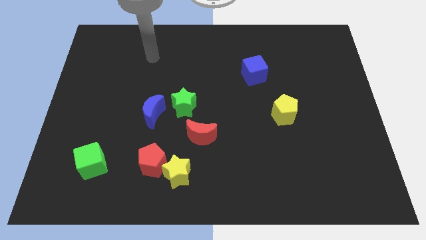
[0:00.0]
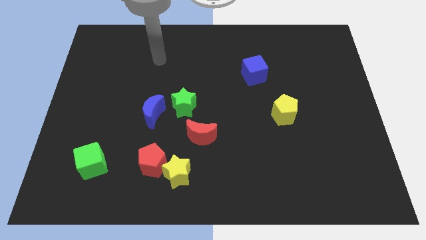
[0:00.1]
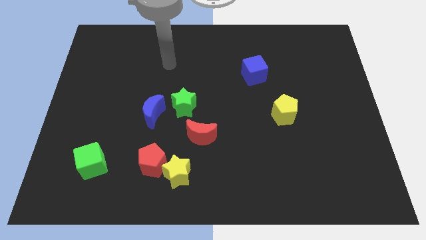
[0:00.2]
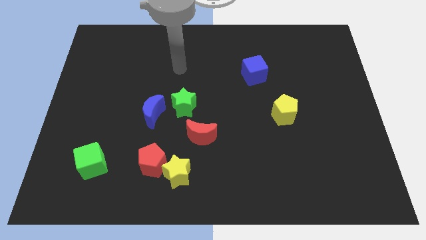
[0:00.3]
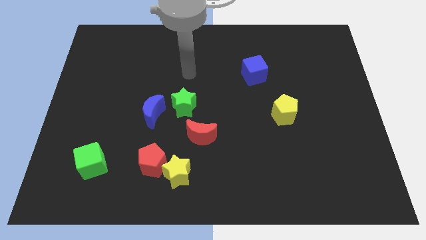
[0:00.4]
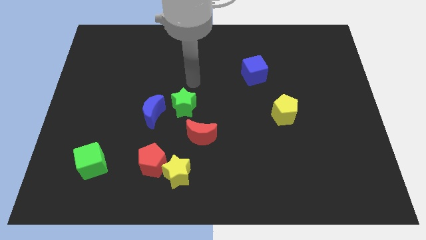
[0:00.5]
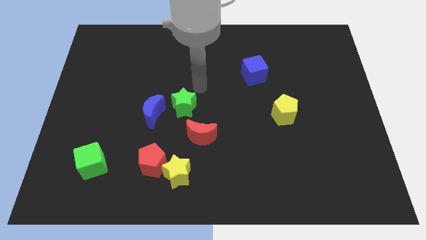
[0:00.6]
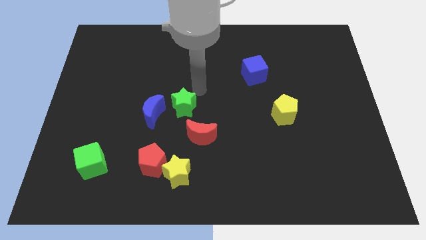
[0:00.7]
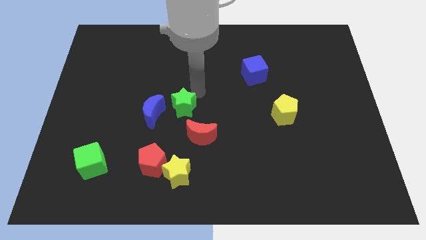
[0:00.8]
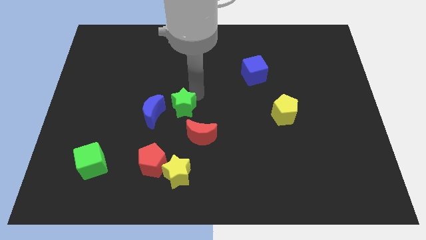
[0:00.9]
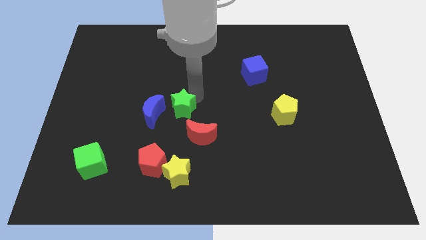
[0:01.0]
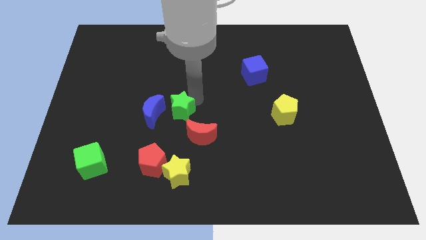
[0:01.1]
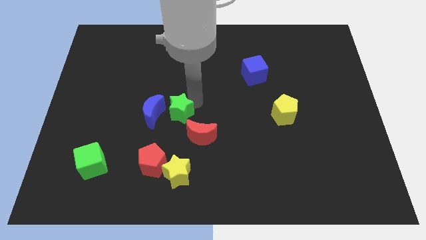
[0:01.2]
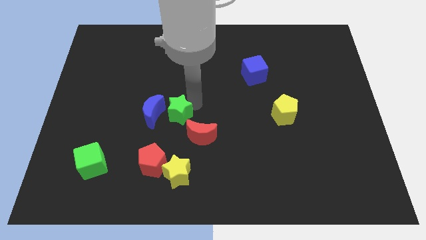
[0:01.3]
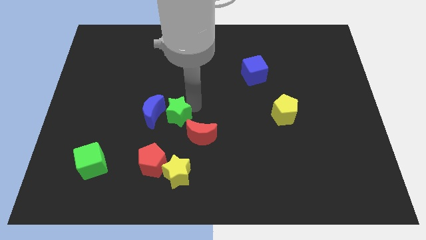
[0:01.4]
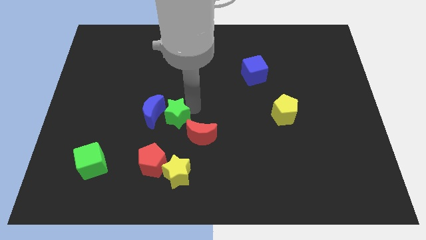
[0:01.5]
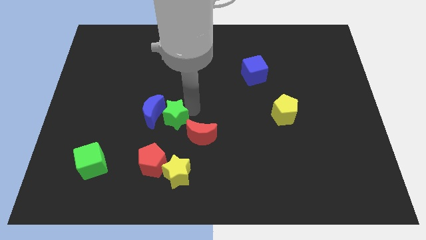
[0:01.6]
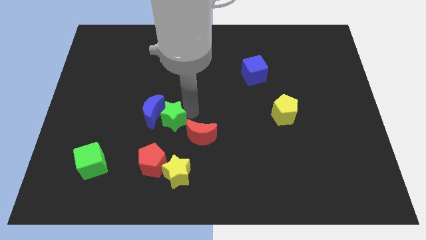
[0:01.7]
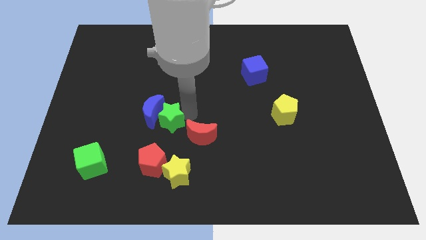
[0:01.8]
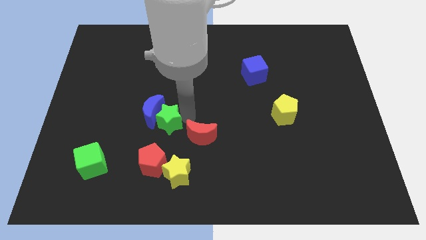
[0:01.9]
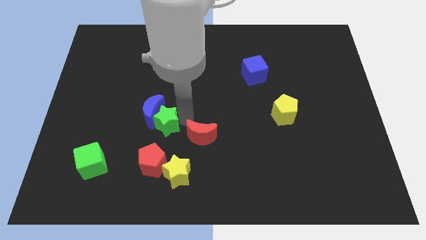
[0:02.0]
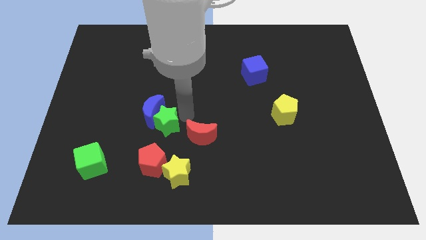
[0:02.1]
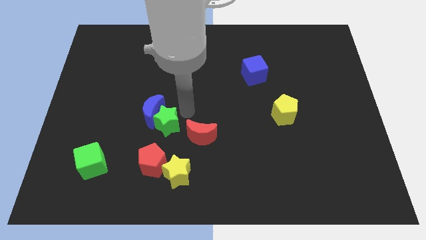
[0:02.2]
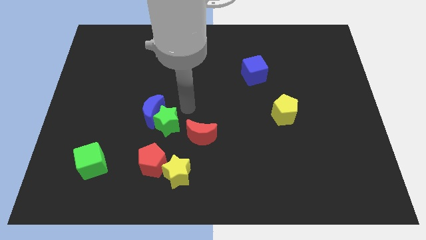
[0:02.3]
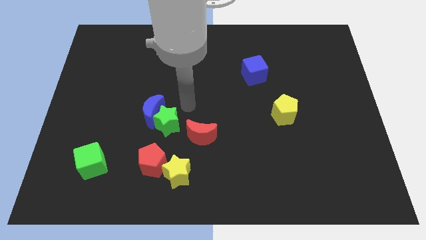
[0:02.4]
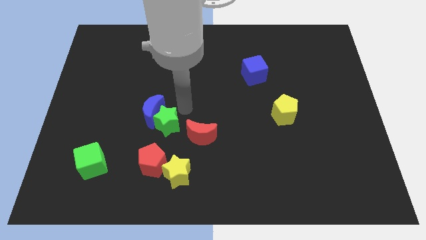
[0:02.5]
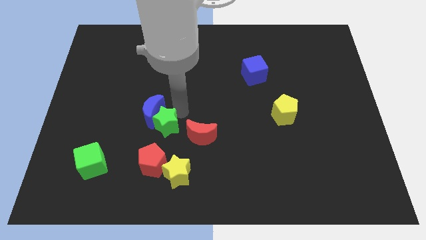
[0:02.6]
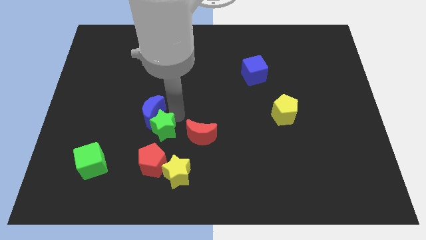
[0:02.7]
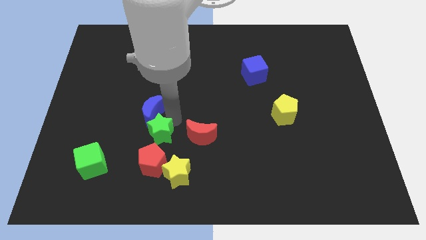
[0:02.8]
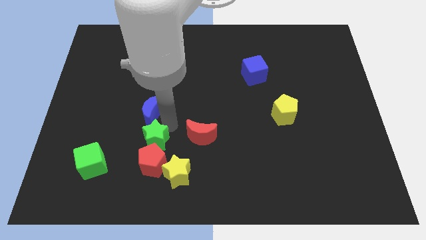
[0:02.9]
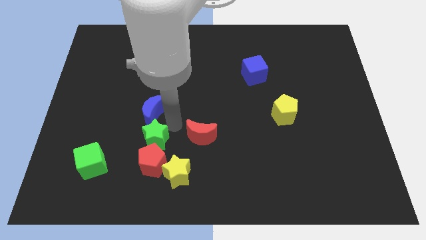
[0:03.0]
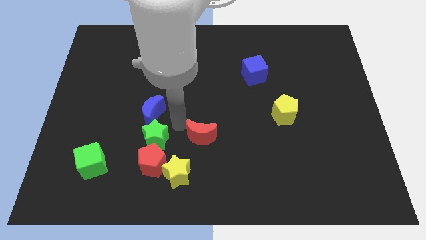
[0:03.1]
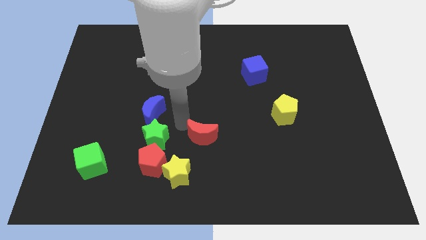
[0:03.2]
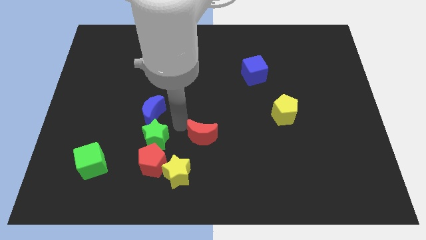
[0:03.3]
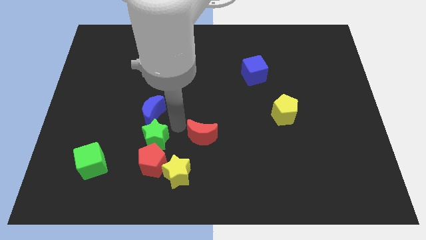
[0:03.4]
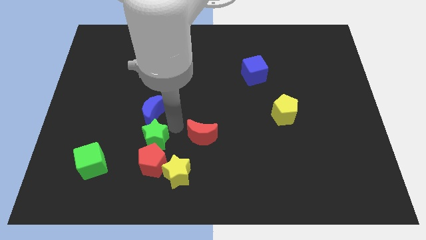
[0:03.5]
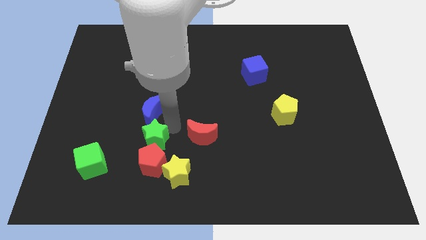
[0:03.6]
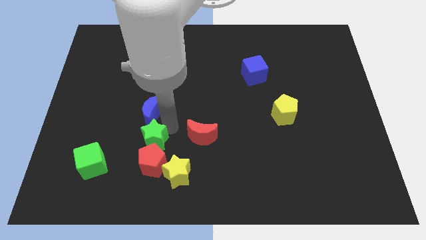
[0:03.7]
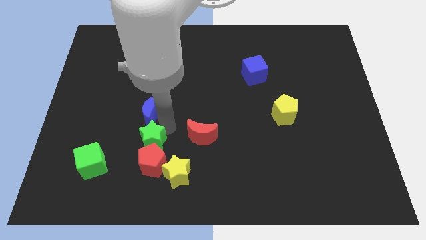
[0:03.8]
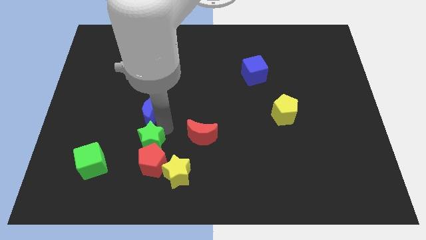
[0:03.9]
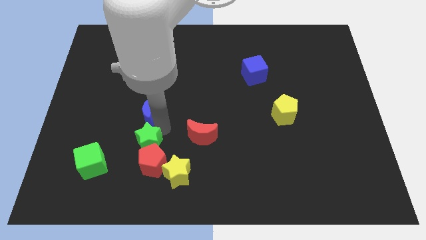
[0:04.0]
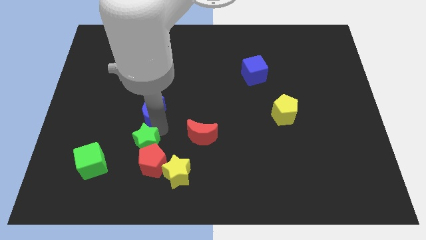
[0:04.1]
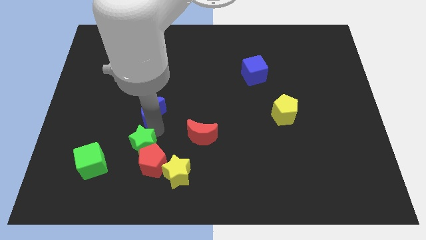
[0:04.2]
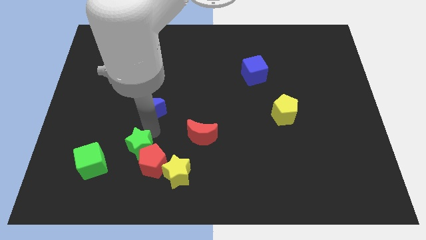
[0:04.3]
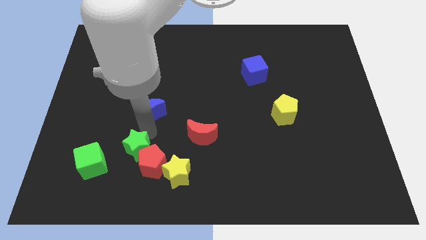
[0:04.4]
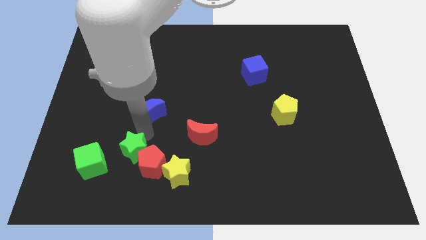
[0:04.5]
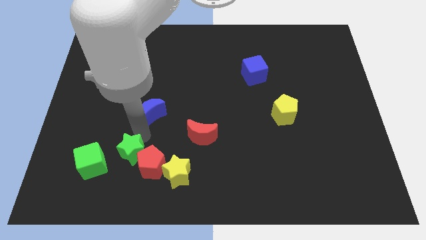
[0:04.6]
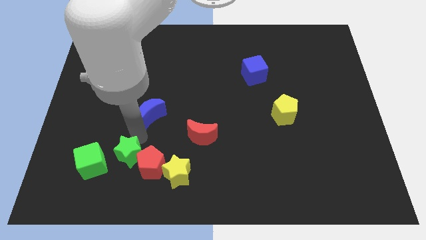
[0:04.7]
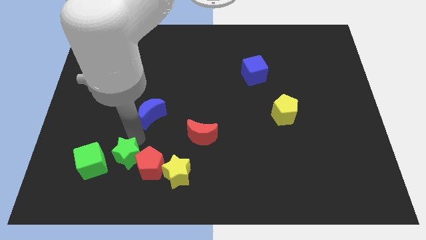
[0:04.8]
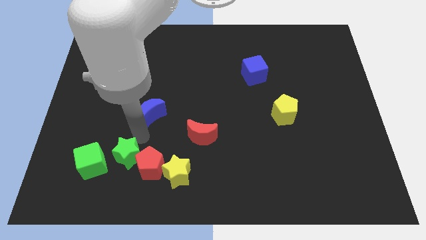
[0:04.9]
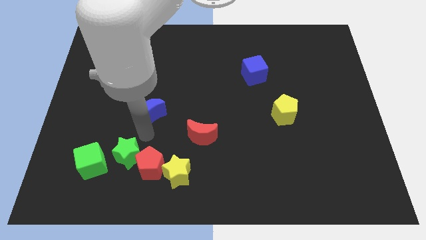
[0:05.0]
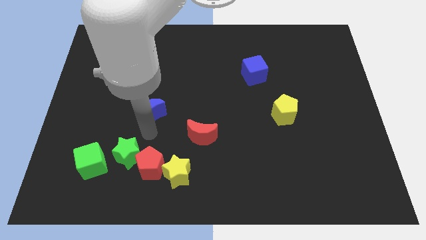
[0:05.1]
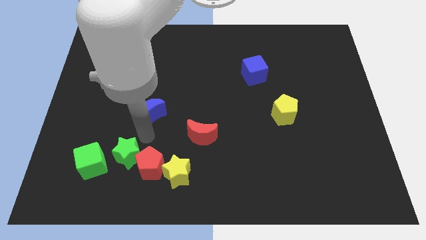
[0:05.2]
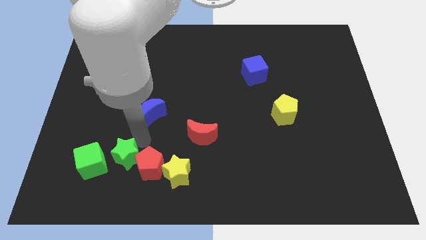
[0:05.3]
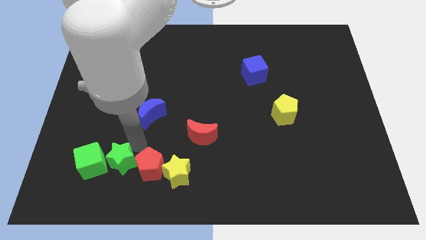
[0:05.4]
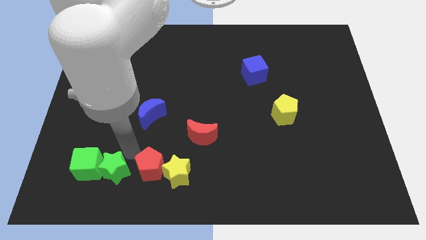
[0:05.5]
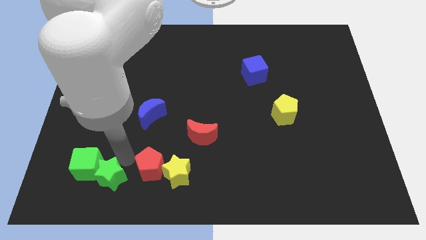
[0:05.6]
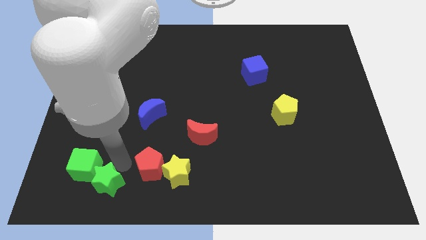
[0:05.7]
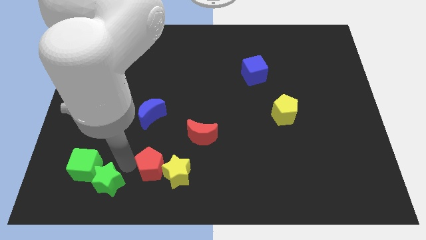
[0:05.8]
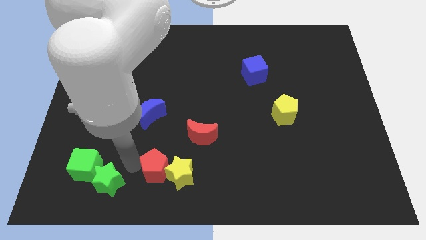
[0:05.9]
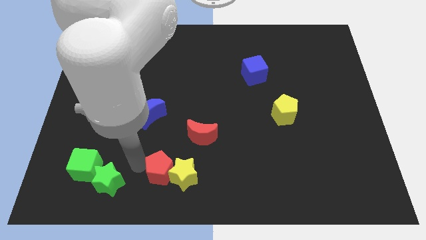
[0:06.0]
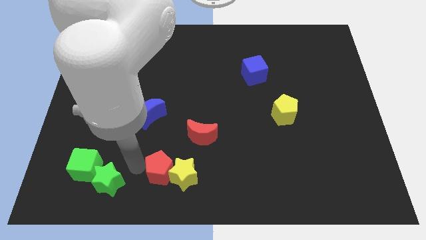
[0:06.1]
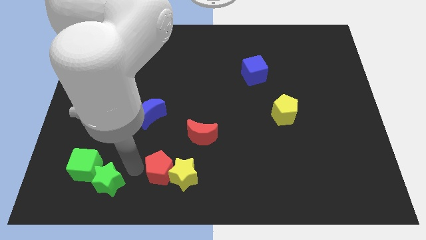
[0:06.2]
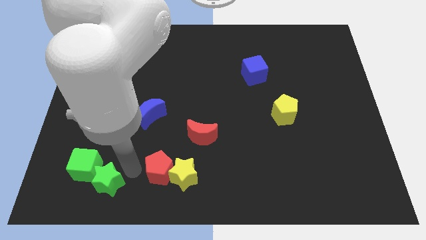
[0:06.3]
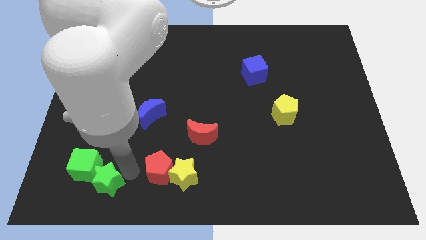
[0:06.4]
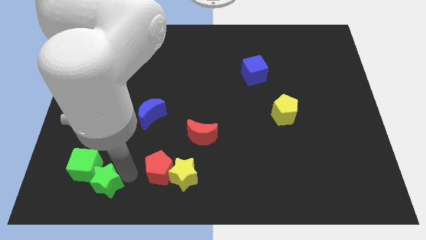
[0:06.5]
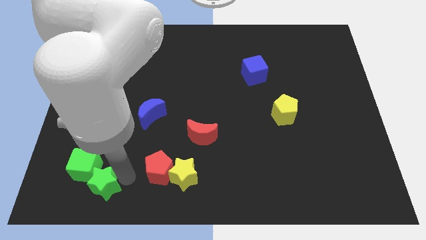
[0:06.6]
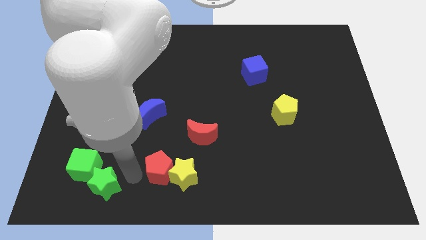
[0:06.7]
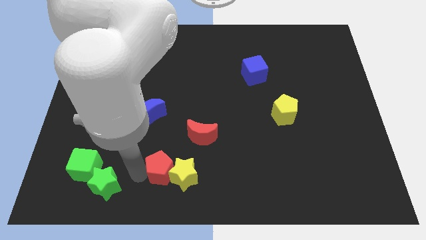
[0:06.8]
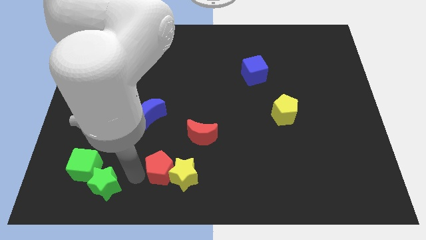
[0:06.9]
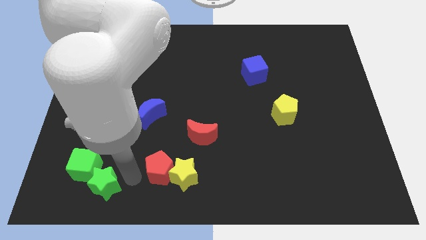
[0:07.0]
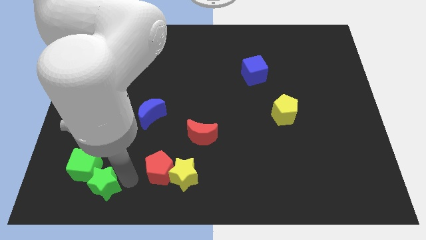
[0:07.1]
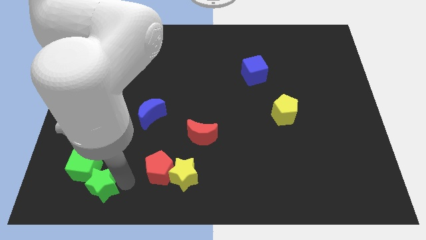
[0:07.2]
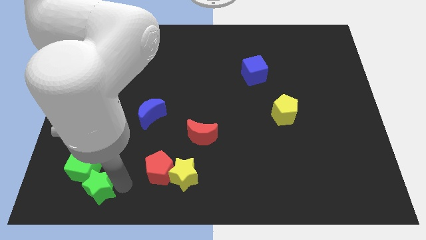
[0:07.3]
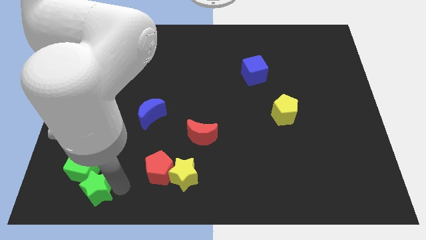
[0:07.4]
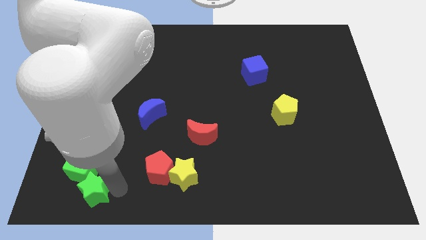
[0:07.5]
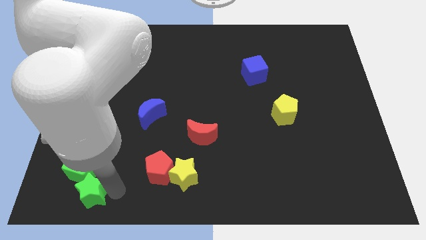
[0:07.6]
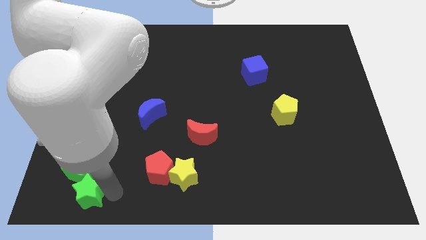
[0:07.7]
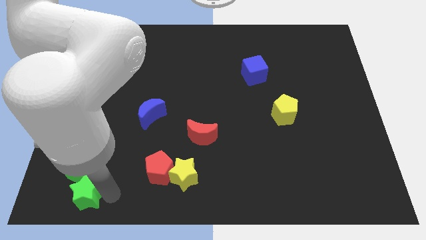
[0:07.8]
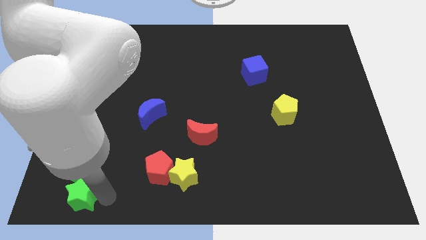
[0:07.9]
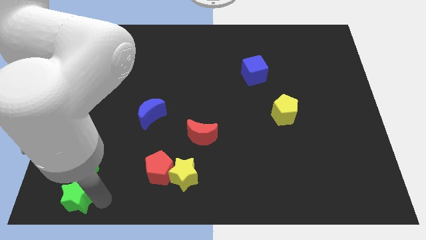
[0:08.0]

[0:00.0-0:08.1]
slide the green star to the lower left corner
